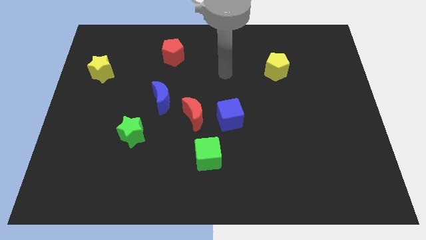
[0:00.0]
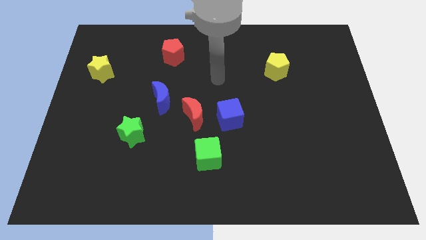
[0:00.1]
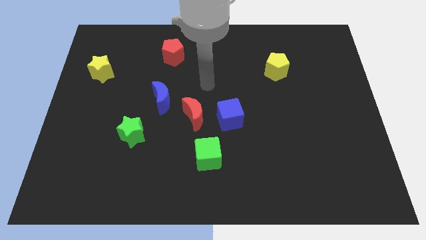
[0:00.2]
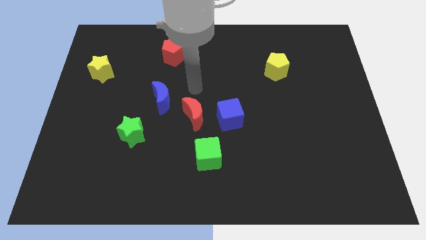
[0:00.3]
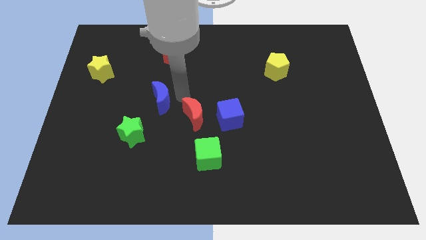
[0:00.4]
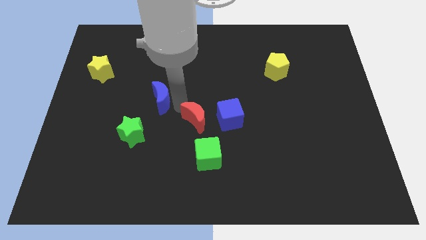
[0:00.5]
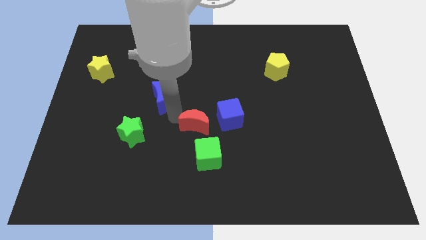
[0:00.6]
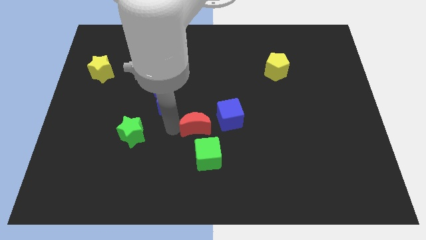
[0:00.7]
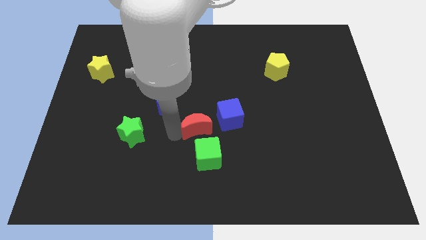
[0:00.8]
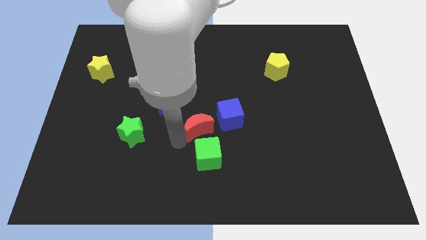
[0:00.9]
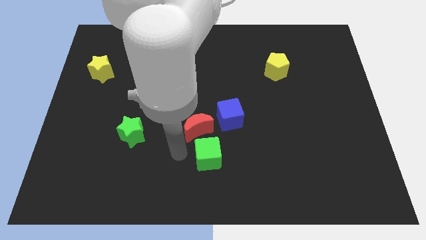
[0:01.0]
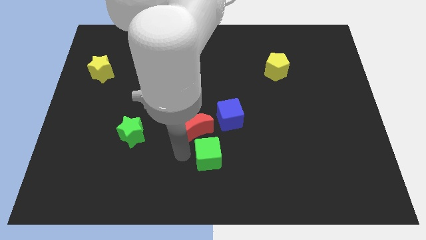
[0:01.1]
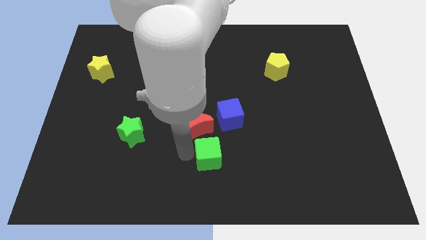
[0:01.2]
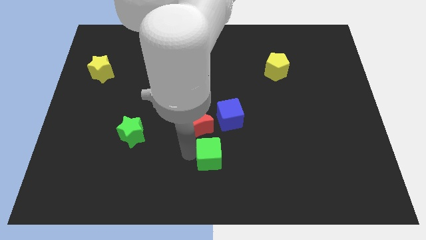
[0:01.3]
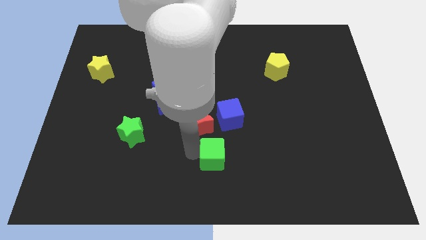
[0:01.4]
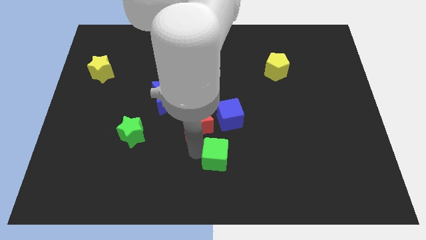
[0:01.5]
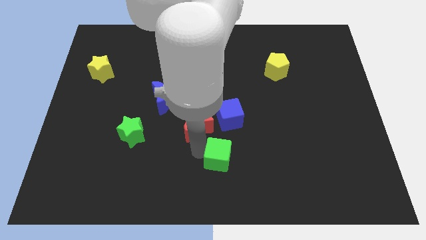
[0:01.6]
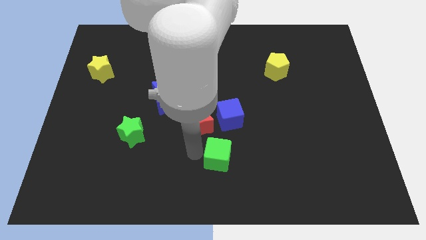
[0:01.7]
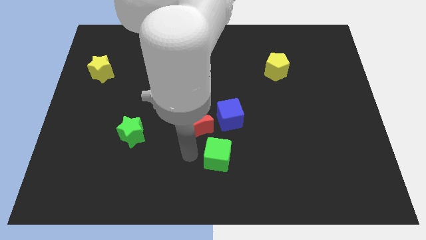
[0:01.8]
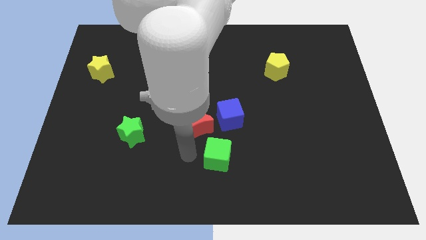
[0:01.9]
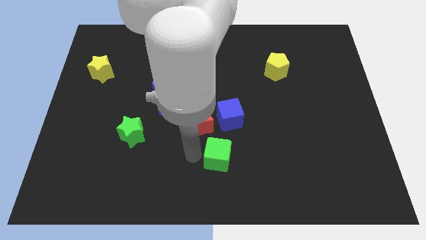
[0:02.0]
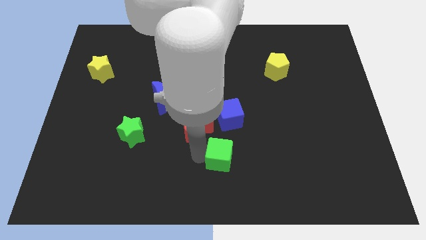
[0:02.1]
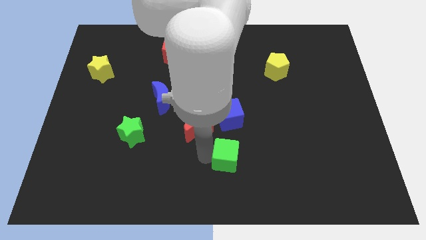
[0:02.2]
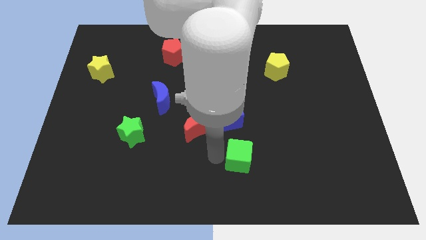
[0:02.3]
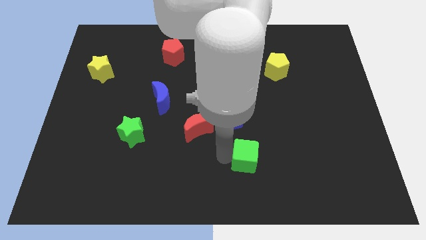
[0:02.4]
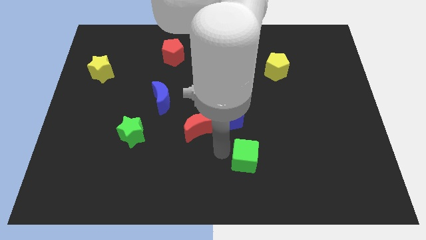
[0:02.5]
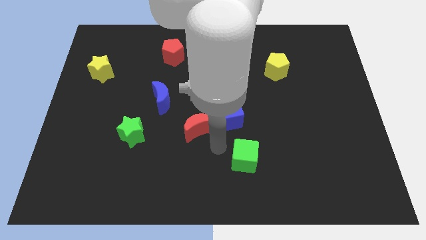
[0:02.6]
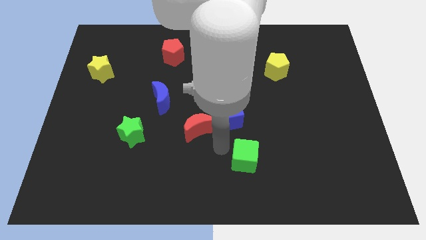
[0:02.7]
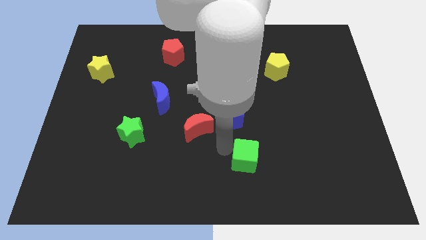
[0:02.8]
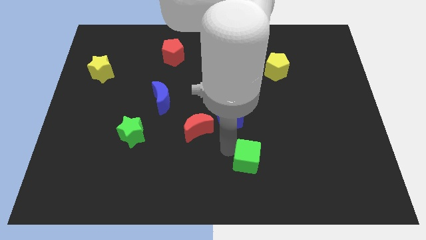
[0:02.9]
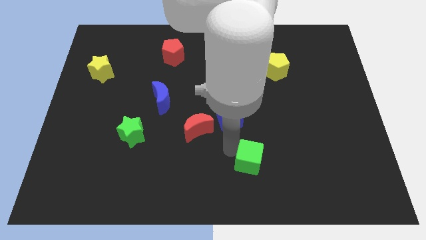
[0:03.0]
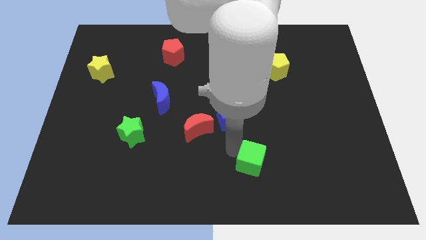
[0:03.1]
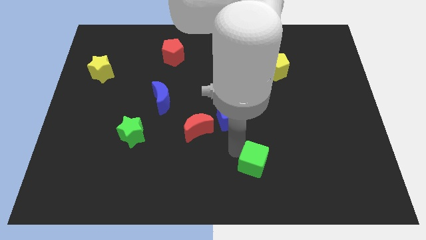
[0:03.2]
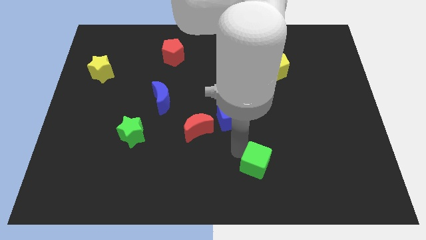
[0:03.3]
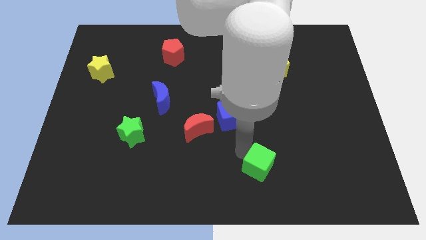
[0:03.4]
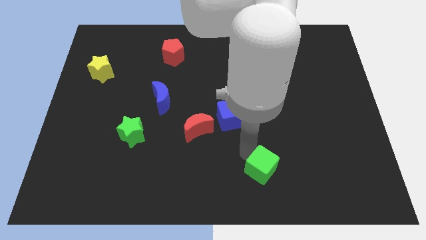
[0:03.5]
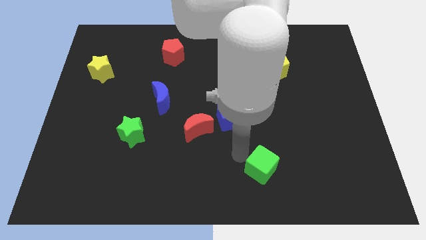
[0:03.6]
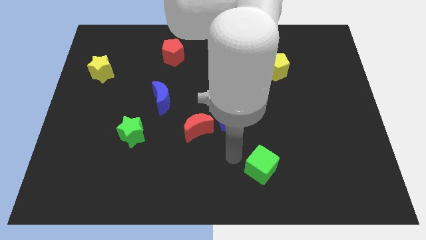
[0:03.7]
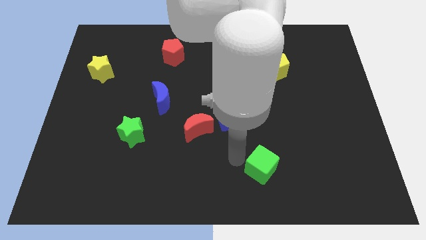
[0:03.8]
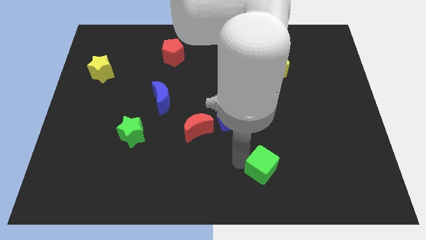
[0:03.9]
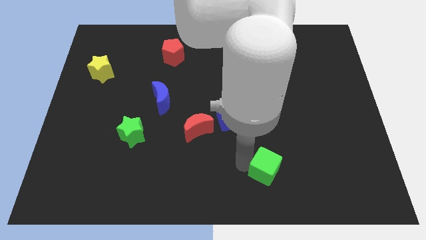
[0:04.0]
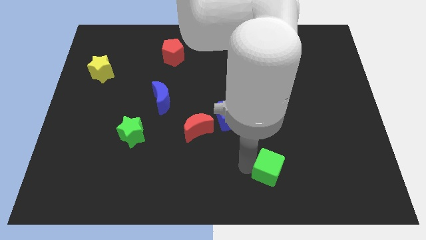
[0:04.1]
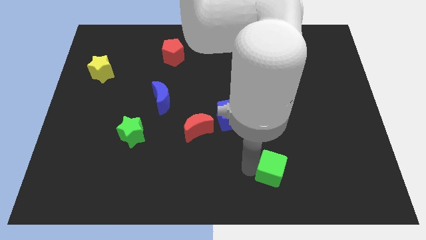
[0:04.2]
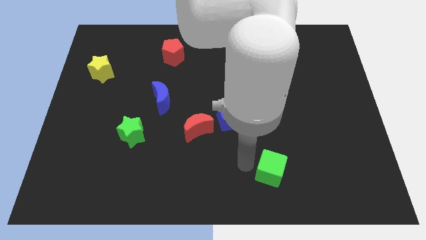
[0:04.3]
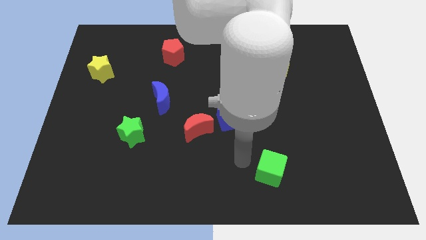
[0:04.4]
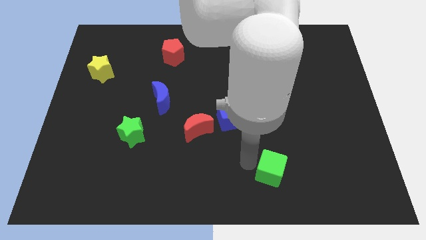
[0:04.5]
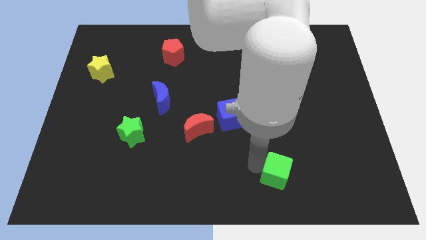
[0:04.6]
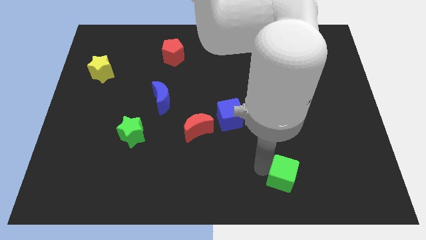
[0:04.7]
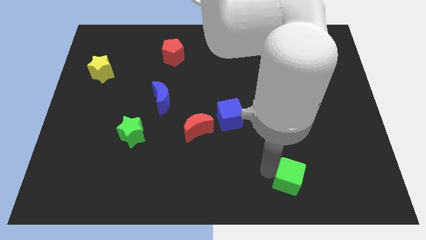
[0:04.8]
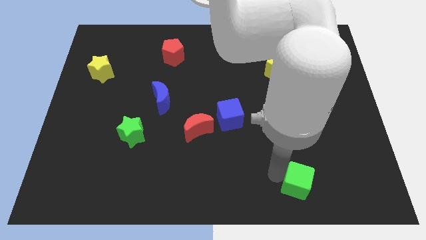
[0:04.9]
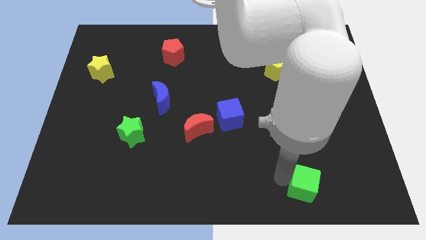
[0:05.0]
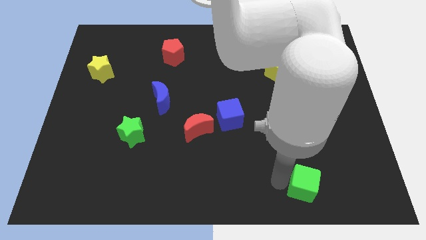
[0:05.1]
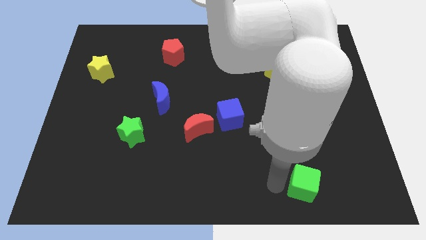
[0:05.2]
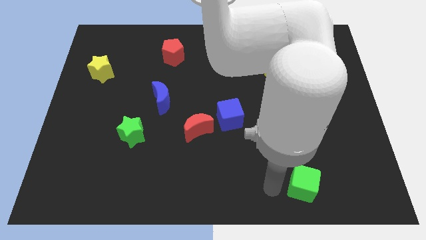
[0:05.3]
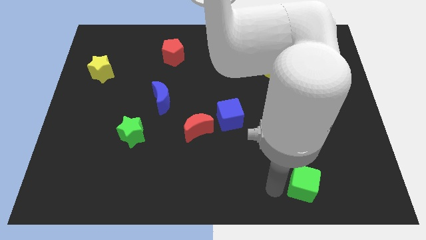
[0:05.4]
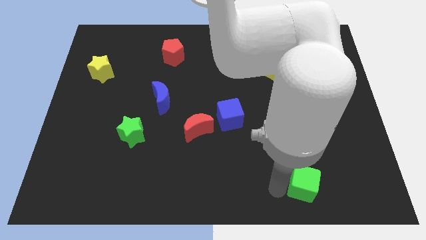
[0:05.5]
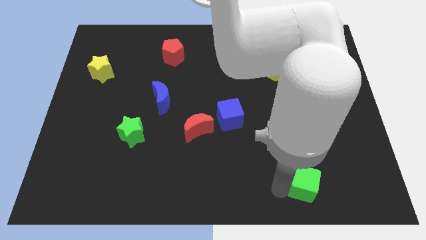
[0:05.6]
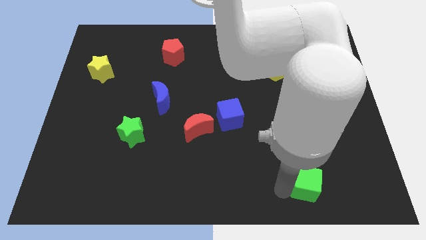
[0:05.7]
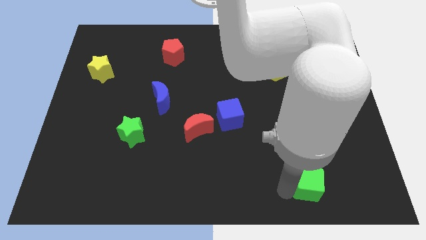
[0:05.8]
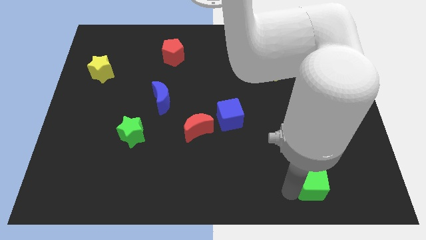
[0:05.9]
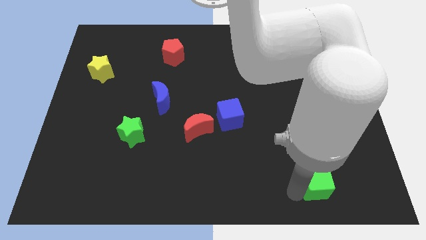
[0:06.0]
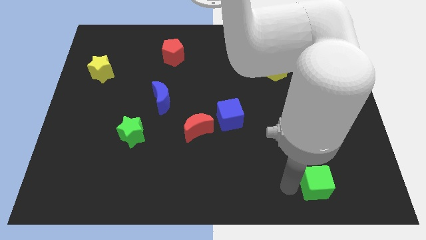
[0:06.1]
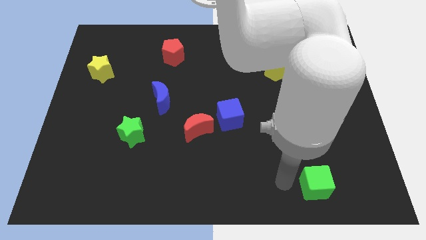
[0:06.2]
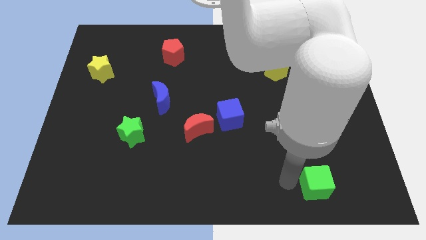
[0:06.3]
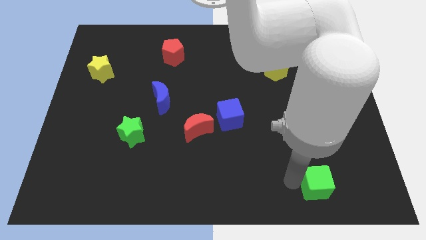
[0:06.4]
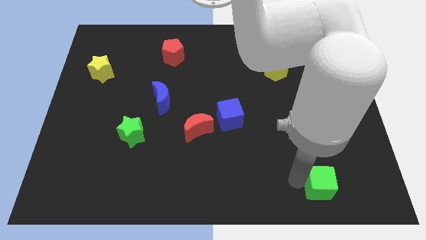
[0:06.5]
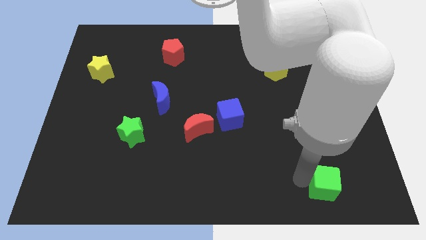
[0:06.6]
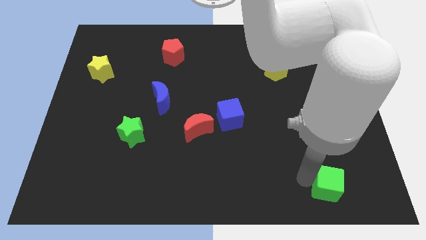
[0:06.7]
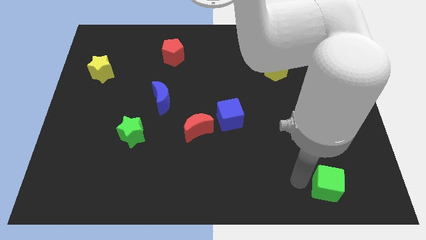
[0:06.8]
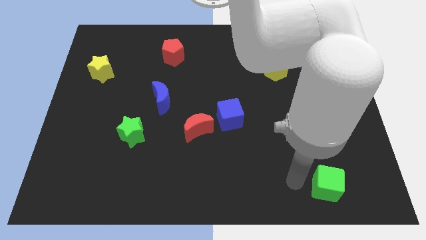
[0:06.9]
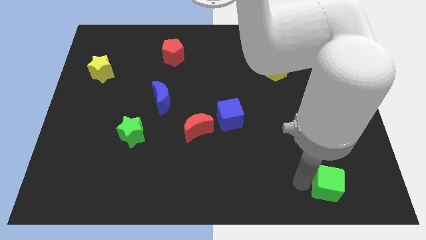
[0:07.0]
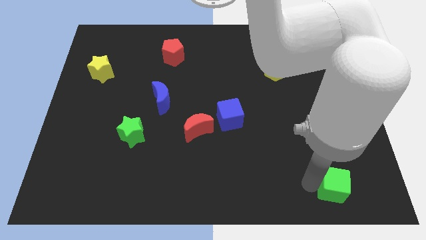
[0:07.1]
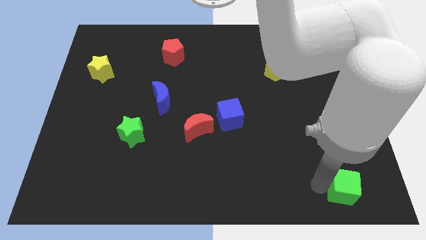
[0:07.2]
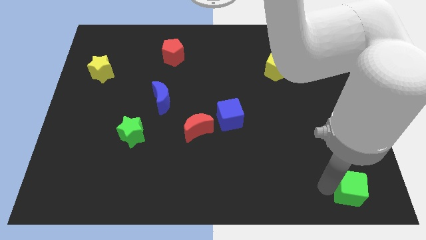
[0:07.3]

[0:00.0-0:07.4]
move the green cube to the lower right corner
